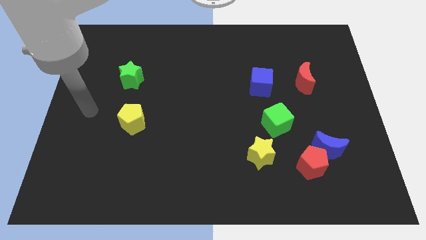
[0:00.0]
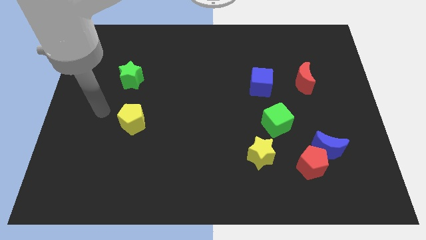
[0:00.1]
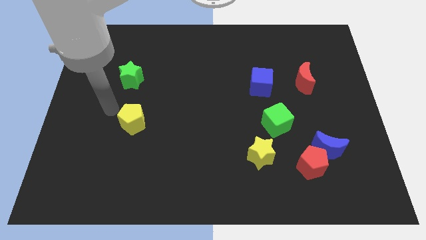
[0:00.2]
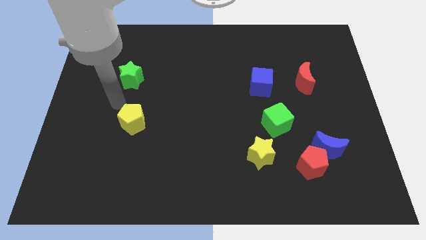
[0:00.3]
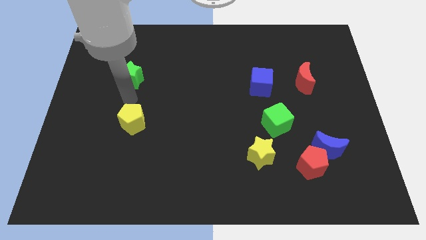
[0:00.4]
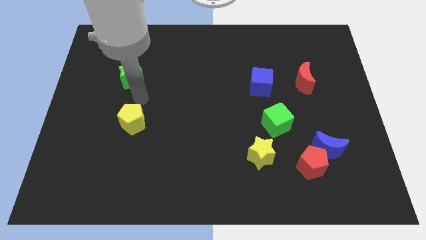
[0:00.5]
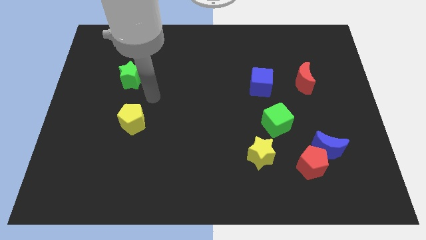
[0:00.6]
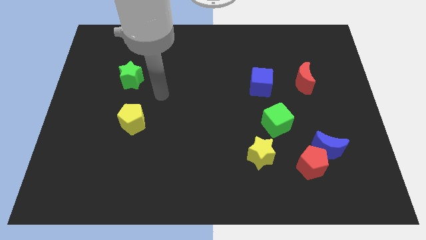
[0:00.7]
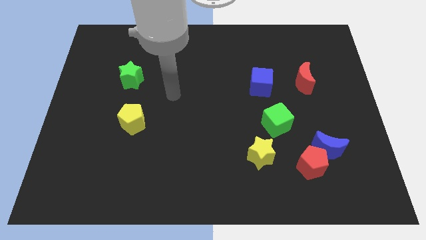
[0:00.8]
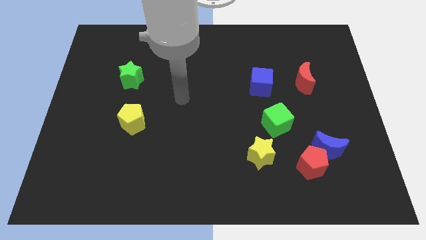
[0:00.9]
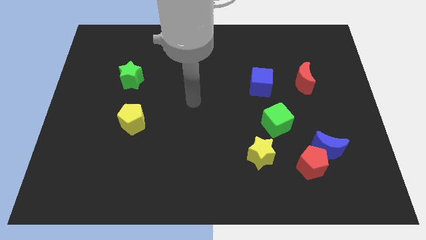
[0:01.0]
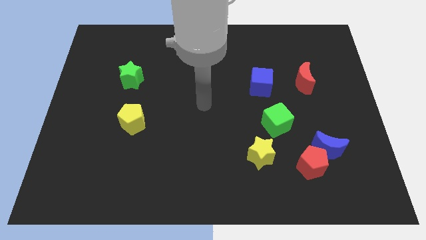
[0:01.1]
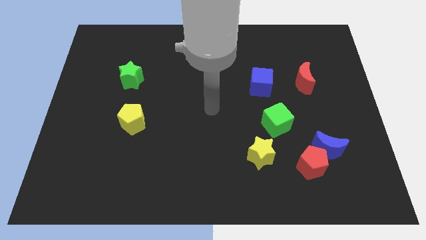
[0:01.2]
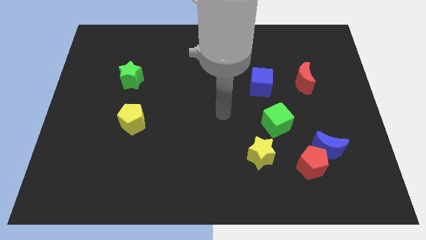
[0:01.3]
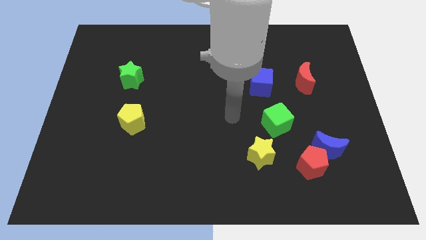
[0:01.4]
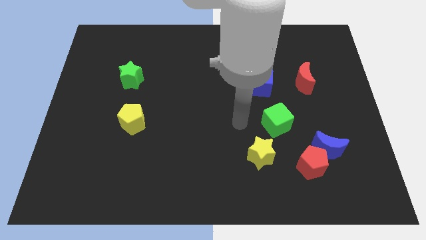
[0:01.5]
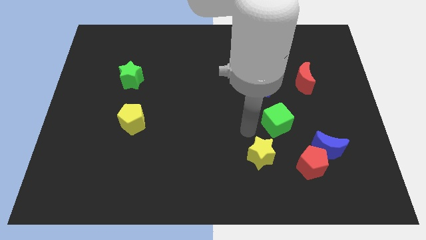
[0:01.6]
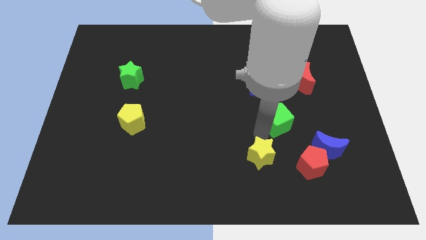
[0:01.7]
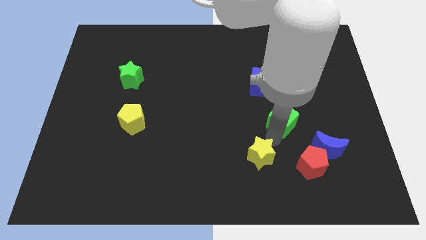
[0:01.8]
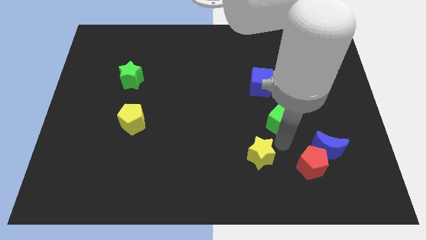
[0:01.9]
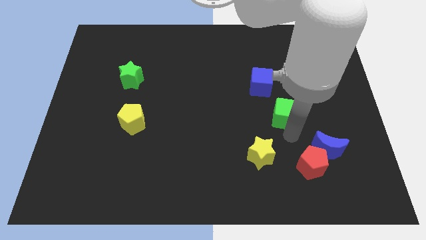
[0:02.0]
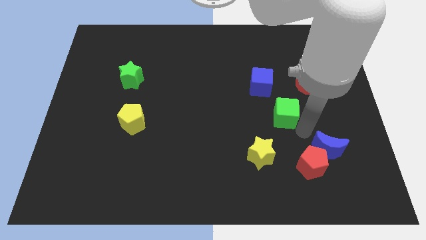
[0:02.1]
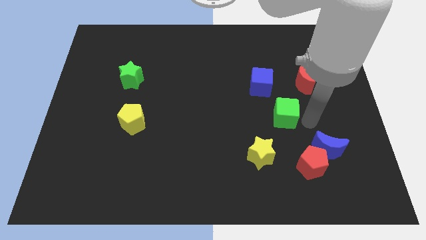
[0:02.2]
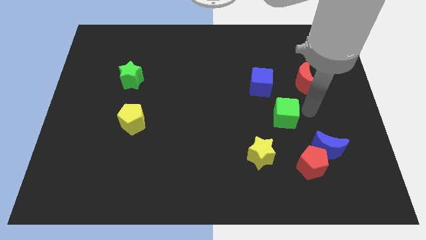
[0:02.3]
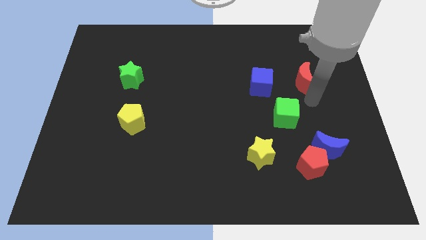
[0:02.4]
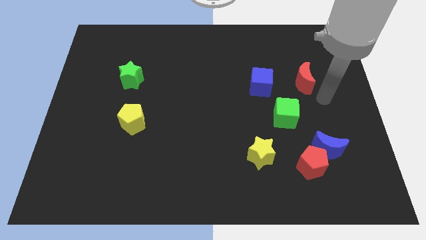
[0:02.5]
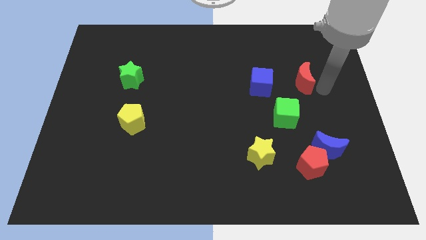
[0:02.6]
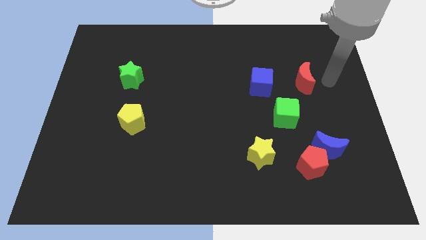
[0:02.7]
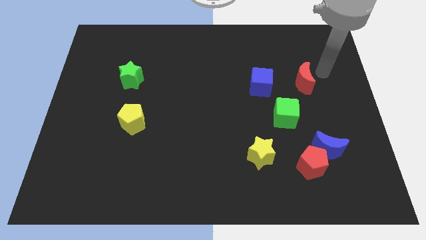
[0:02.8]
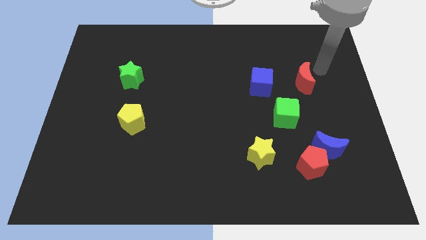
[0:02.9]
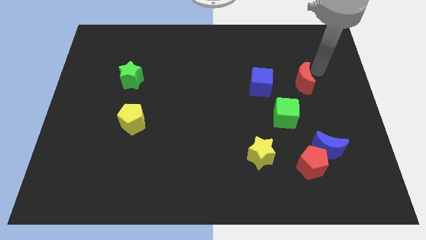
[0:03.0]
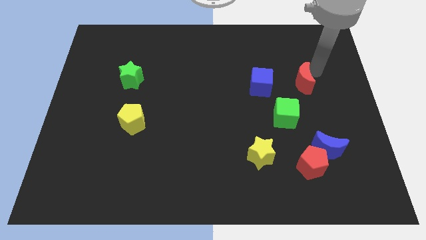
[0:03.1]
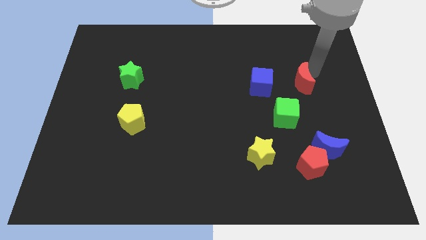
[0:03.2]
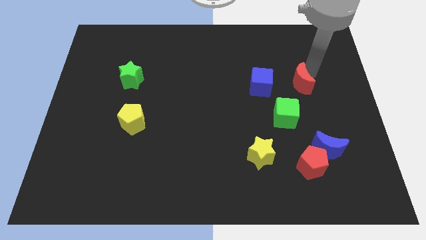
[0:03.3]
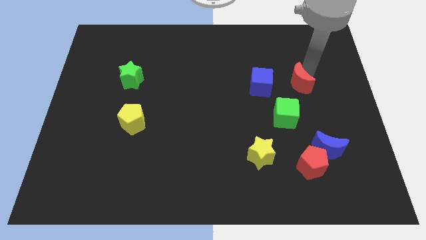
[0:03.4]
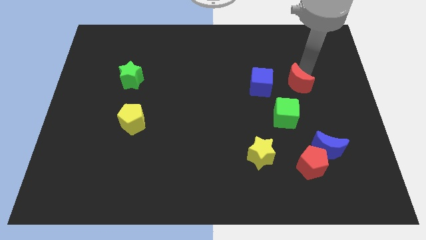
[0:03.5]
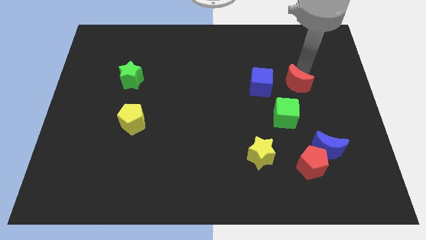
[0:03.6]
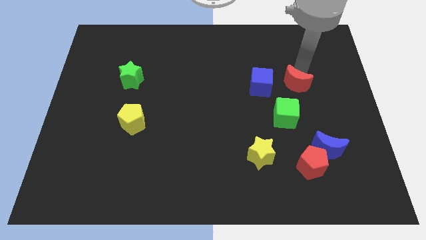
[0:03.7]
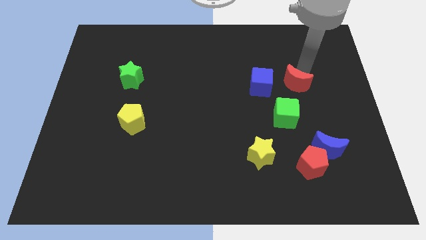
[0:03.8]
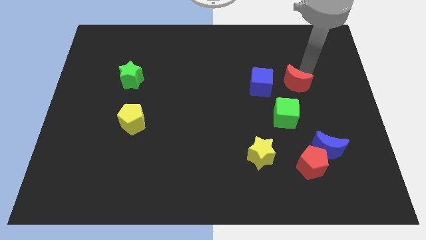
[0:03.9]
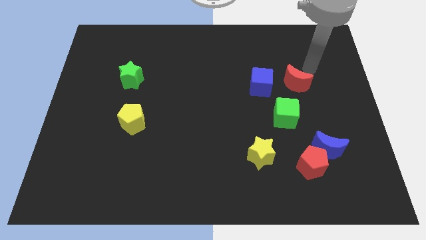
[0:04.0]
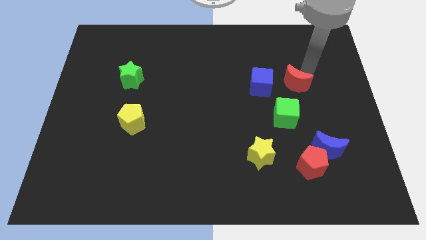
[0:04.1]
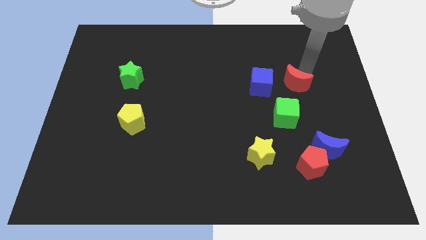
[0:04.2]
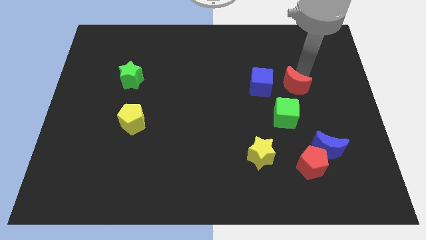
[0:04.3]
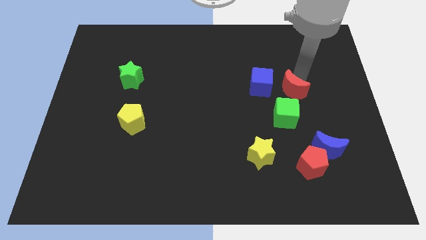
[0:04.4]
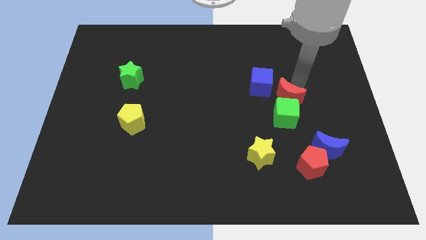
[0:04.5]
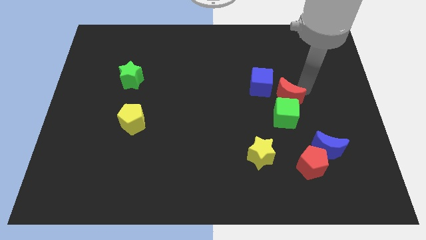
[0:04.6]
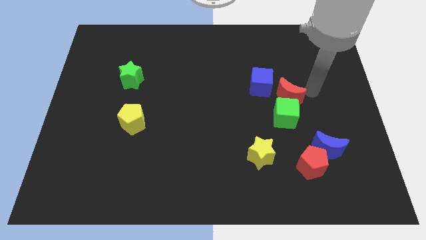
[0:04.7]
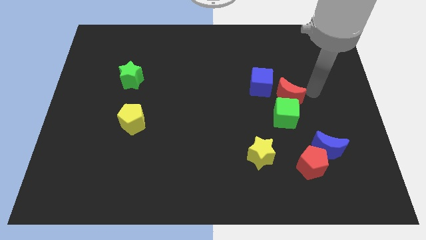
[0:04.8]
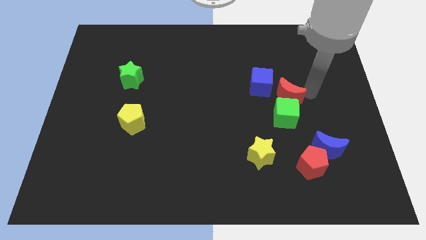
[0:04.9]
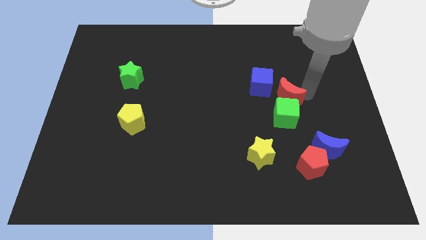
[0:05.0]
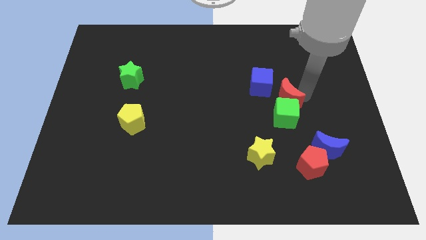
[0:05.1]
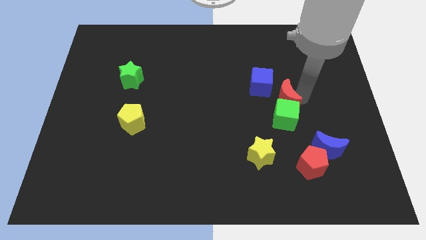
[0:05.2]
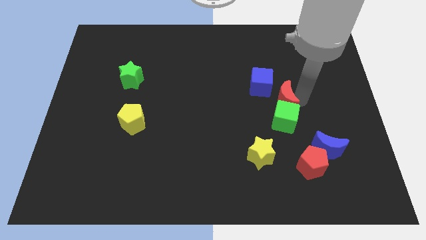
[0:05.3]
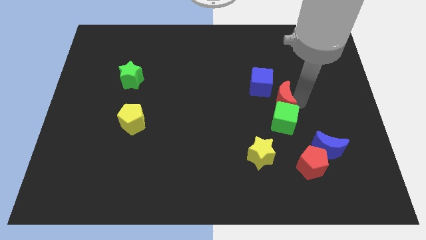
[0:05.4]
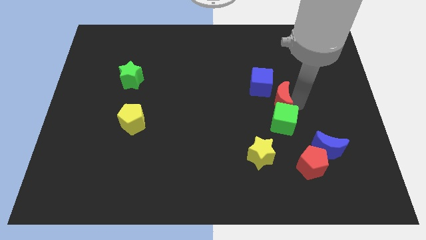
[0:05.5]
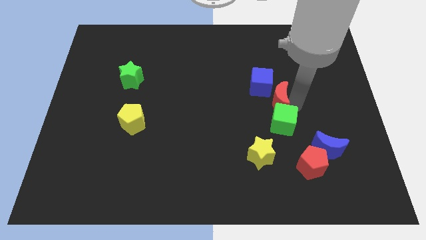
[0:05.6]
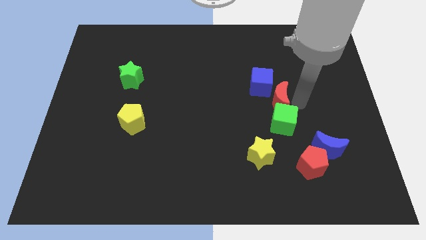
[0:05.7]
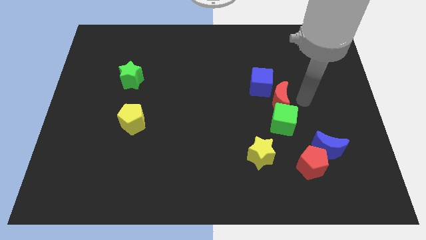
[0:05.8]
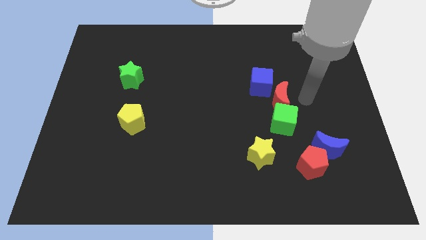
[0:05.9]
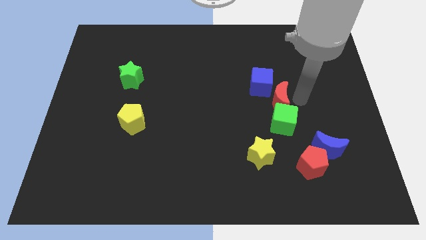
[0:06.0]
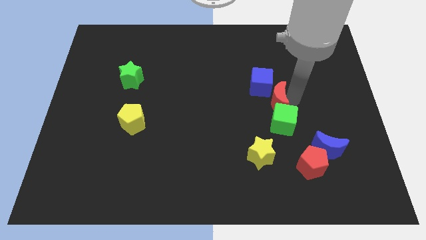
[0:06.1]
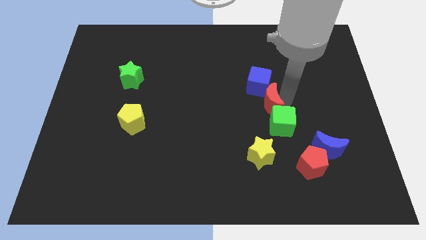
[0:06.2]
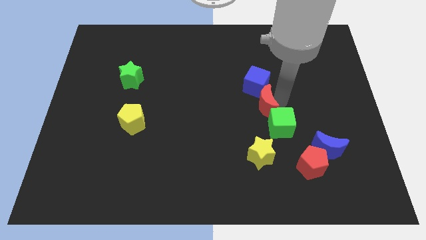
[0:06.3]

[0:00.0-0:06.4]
slide the red moon to the center
